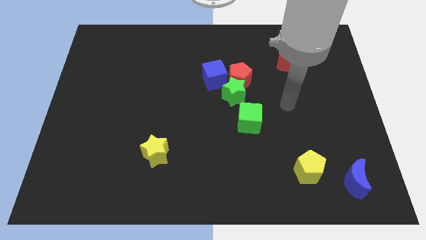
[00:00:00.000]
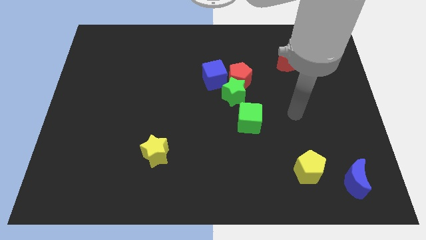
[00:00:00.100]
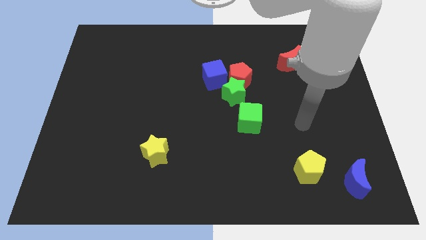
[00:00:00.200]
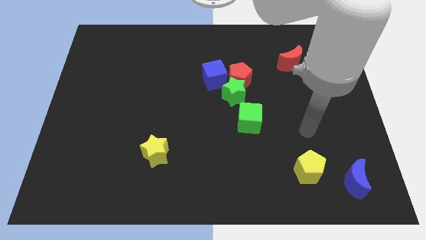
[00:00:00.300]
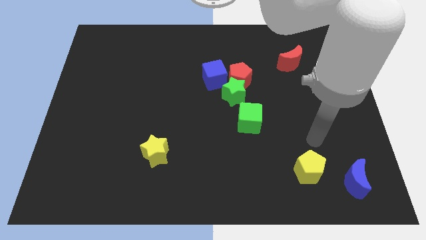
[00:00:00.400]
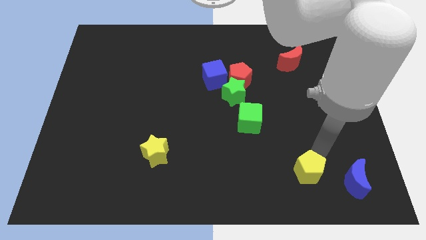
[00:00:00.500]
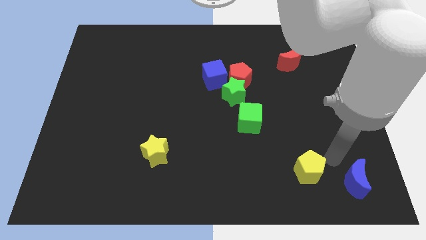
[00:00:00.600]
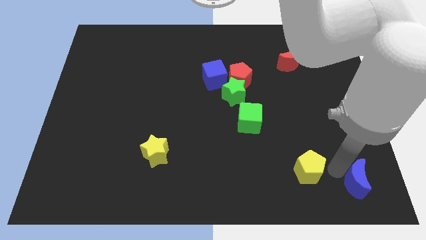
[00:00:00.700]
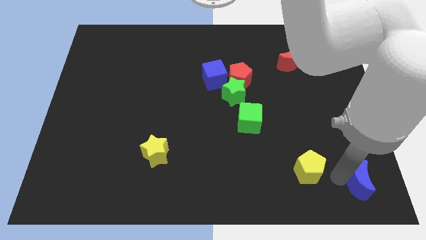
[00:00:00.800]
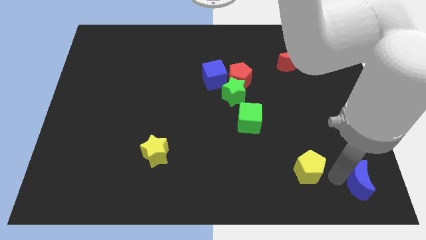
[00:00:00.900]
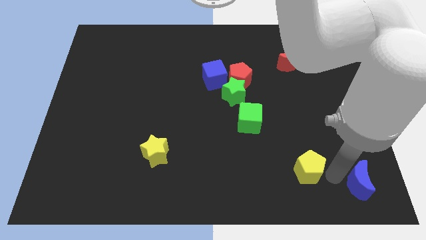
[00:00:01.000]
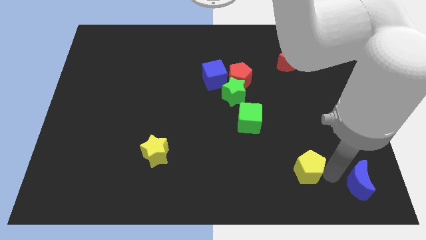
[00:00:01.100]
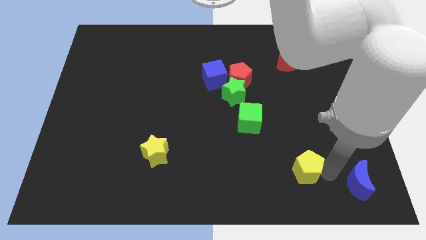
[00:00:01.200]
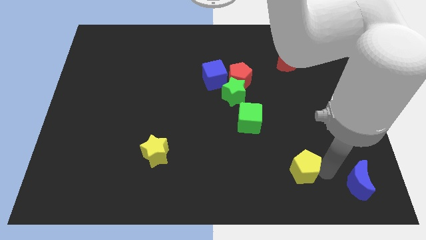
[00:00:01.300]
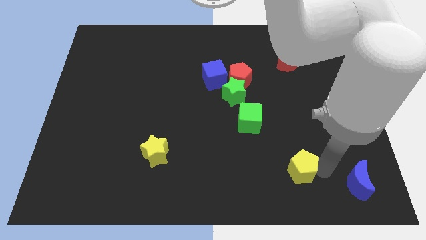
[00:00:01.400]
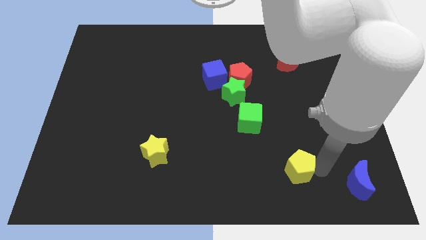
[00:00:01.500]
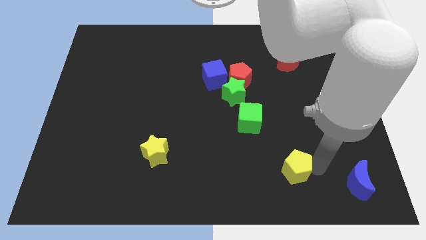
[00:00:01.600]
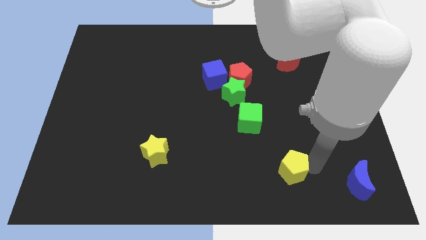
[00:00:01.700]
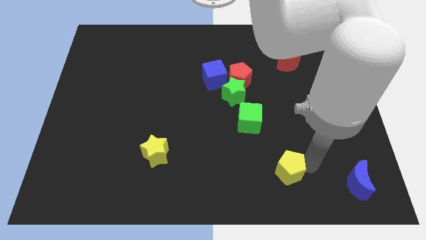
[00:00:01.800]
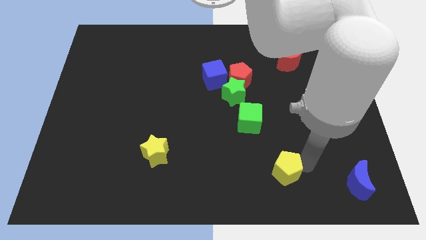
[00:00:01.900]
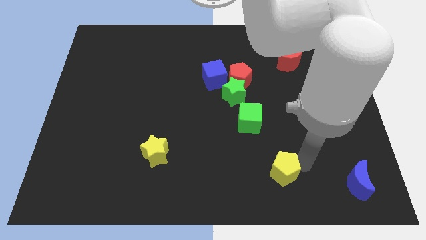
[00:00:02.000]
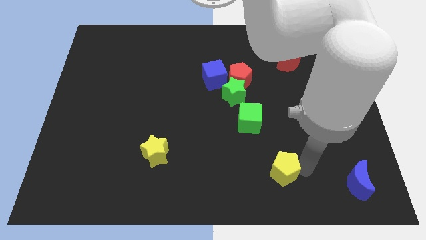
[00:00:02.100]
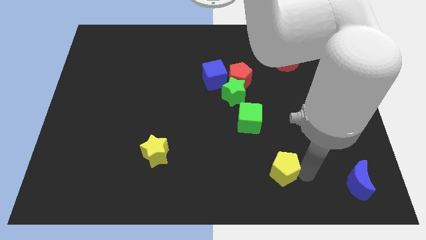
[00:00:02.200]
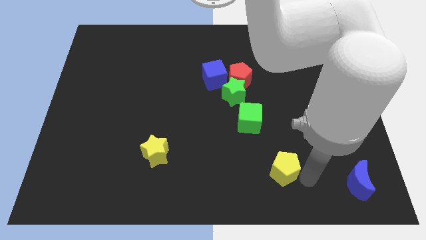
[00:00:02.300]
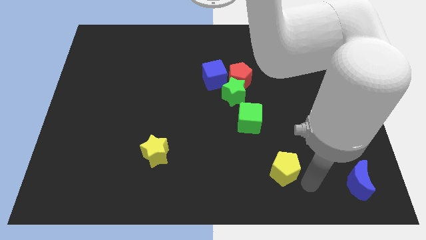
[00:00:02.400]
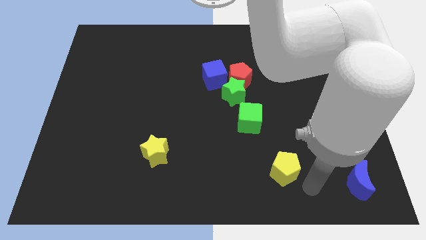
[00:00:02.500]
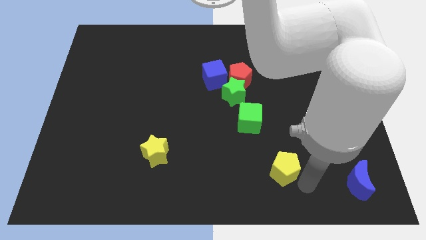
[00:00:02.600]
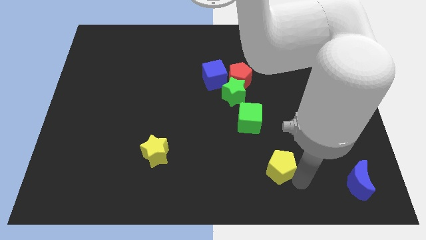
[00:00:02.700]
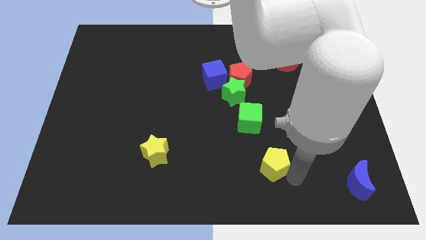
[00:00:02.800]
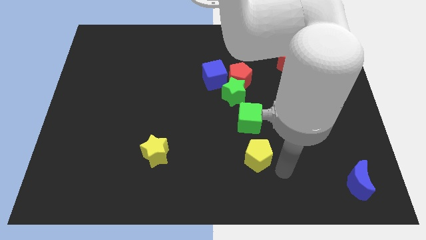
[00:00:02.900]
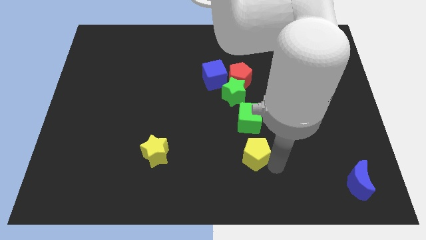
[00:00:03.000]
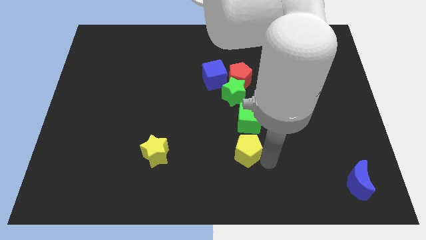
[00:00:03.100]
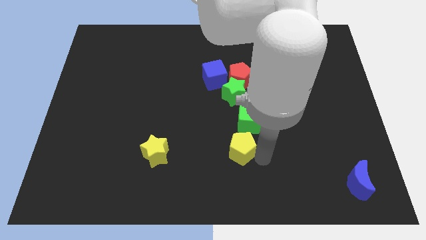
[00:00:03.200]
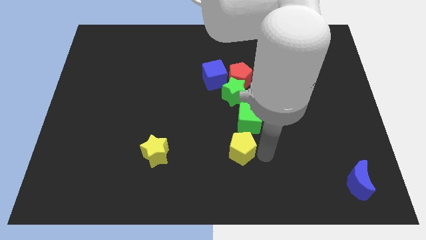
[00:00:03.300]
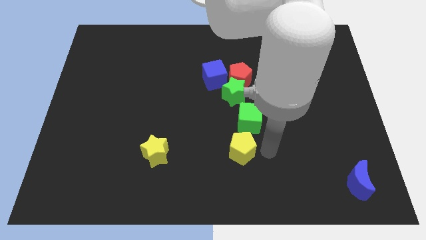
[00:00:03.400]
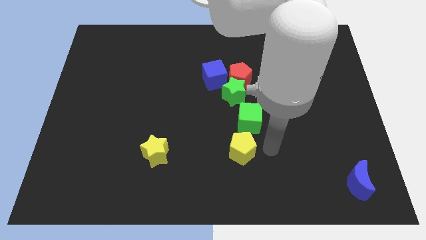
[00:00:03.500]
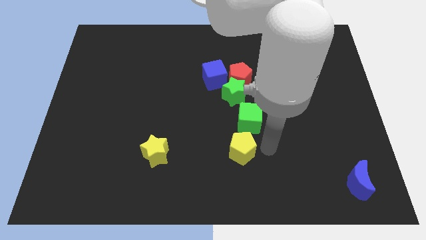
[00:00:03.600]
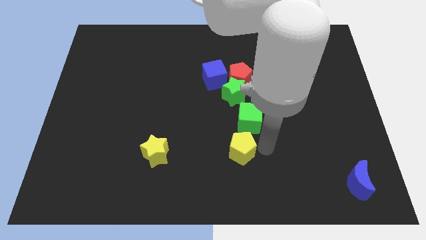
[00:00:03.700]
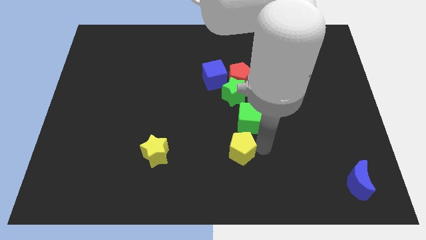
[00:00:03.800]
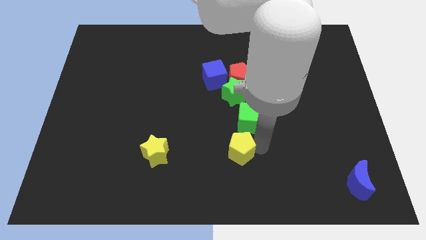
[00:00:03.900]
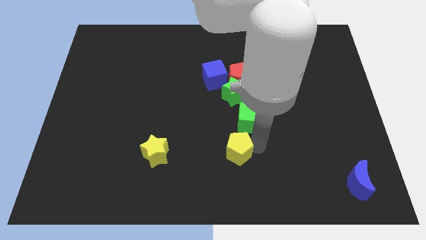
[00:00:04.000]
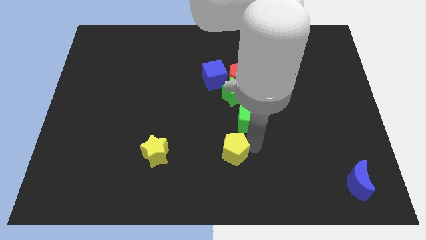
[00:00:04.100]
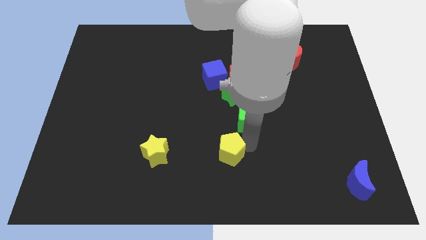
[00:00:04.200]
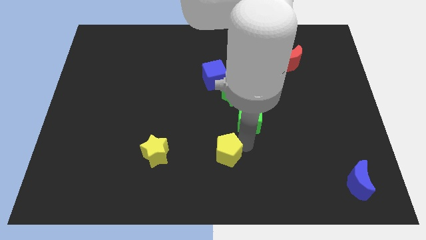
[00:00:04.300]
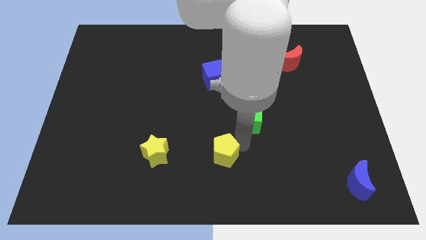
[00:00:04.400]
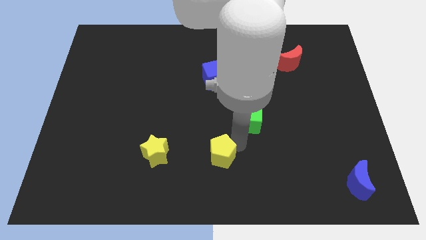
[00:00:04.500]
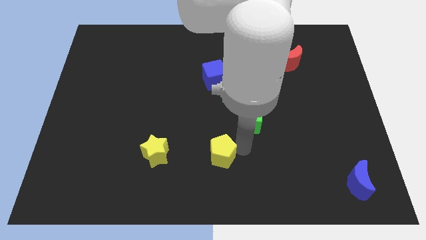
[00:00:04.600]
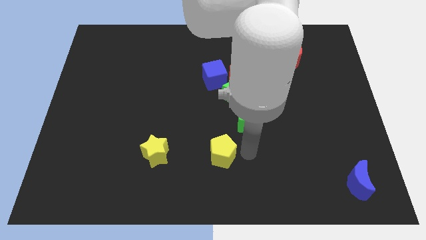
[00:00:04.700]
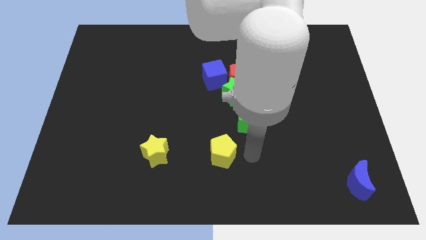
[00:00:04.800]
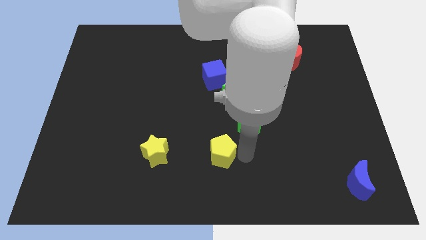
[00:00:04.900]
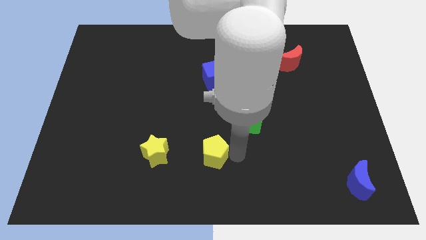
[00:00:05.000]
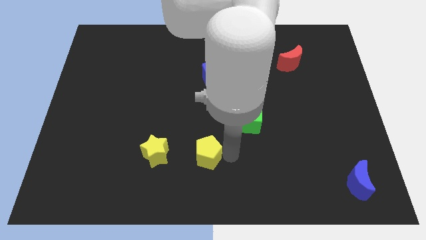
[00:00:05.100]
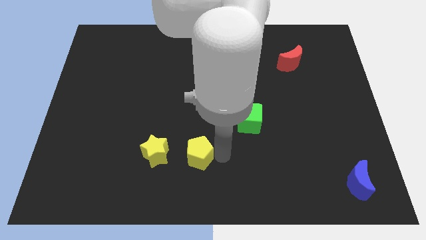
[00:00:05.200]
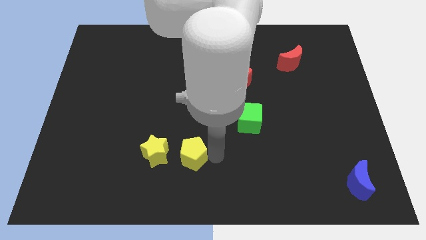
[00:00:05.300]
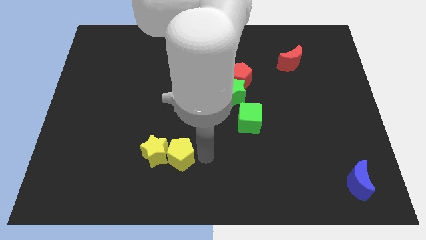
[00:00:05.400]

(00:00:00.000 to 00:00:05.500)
push the yellow pentagon close to the yellow star
